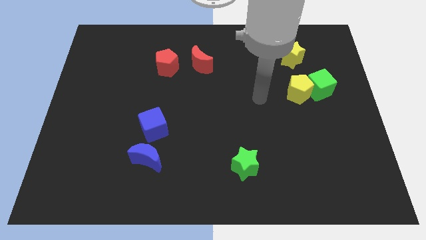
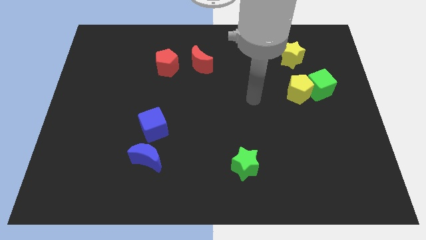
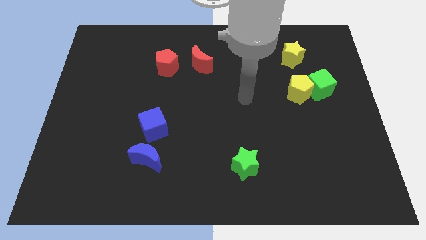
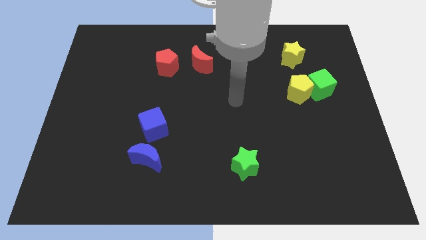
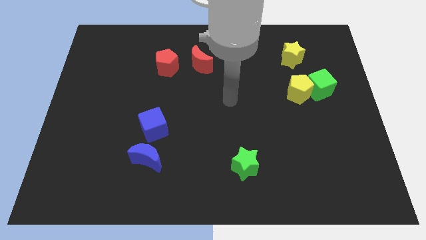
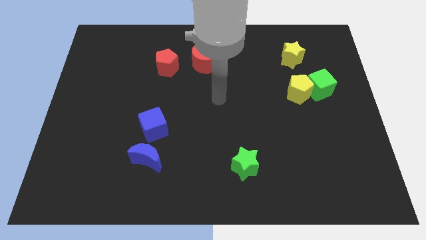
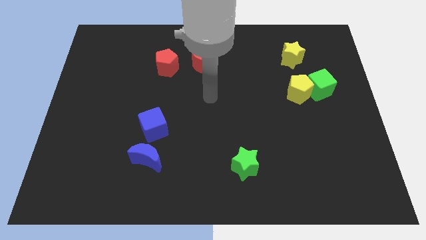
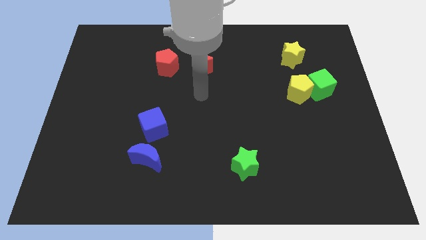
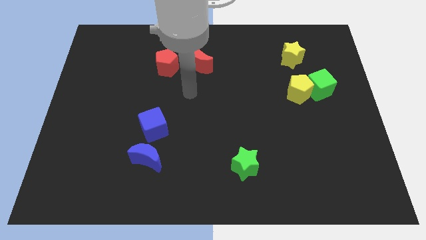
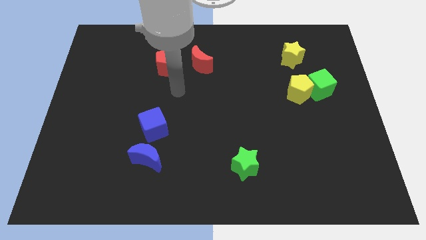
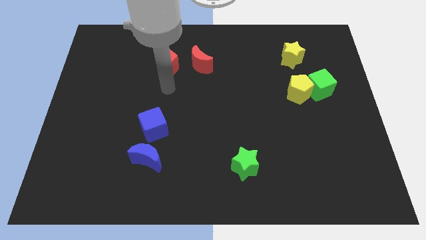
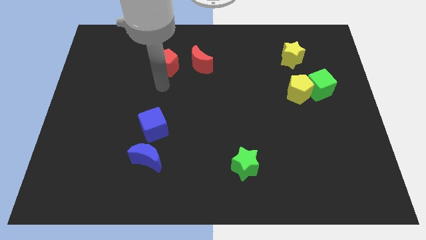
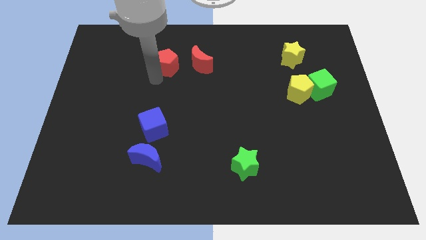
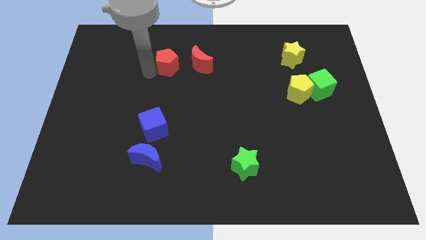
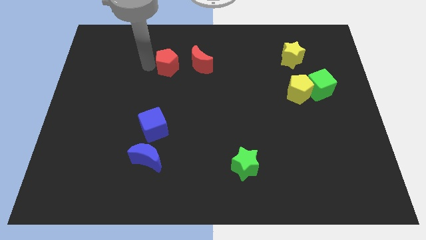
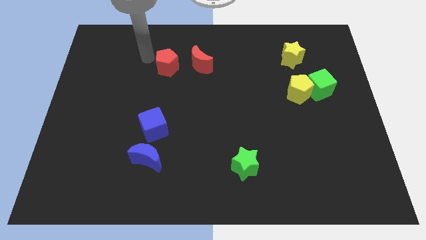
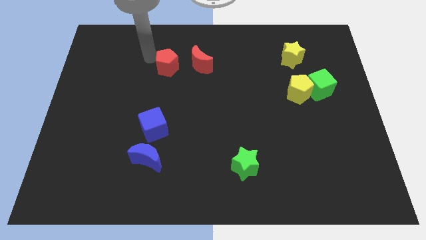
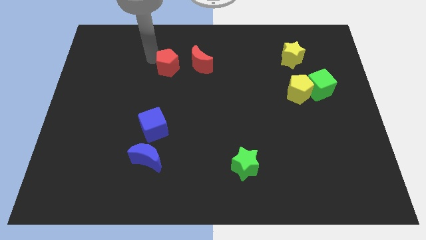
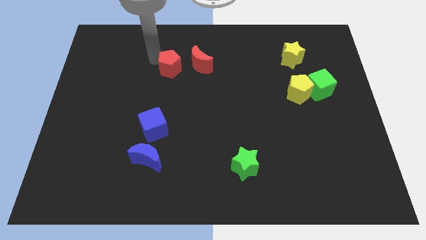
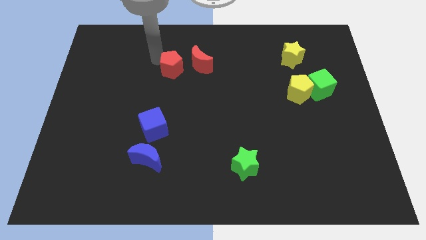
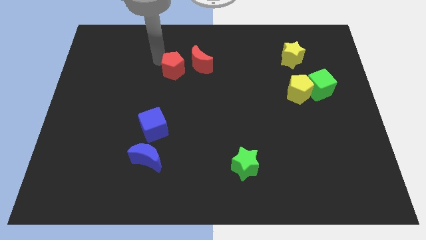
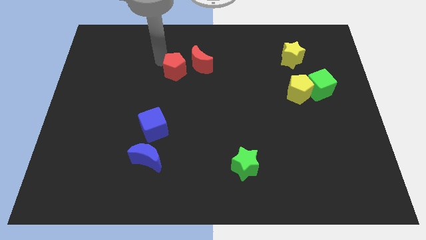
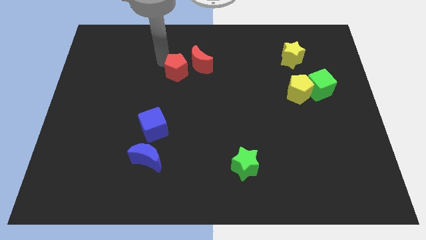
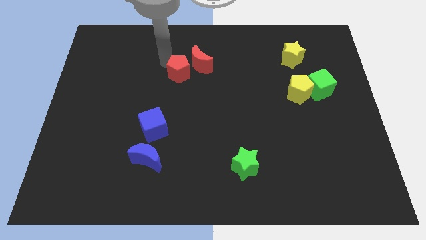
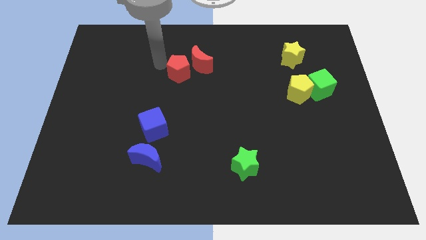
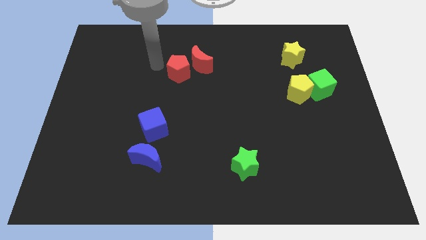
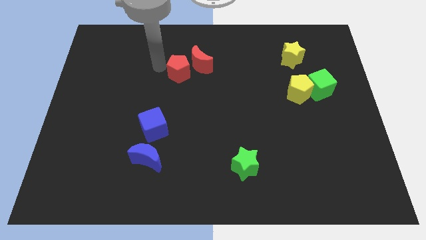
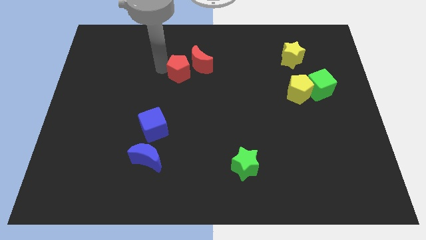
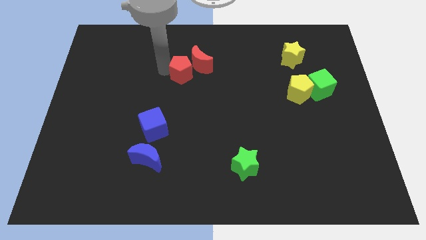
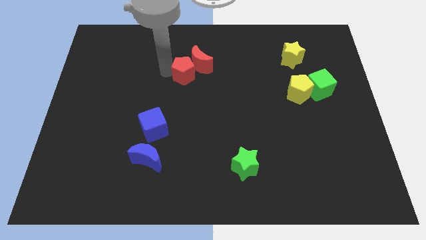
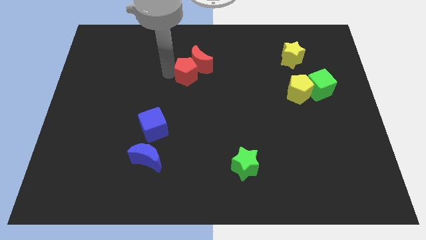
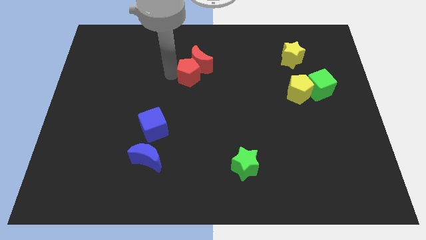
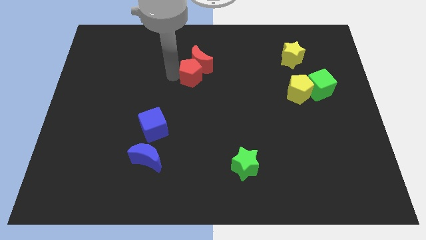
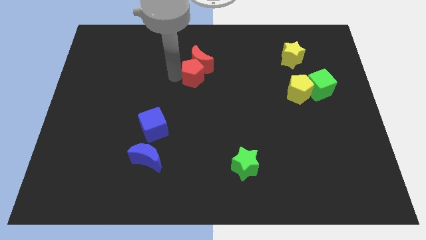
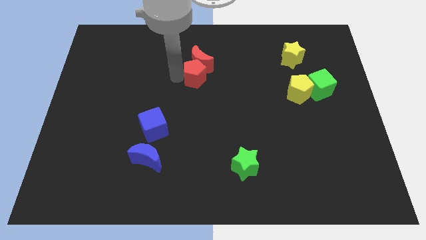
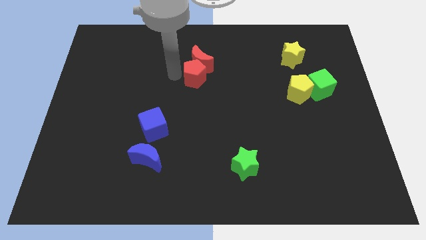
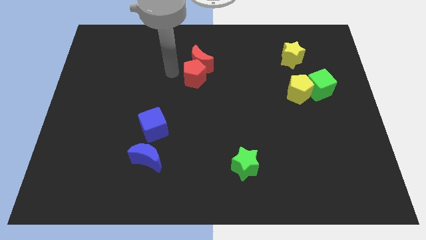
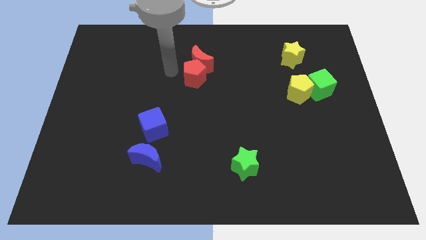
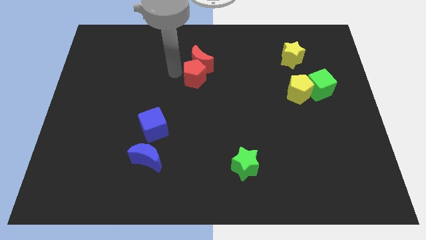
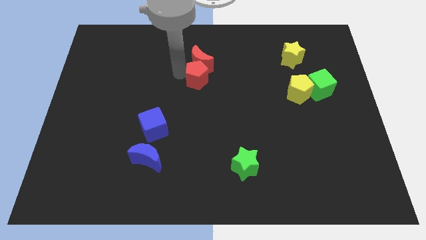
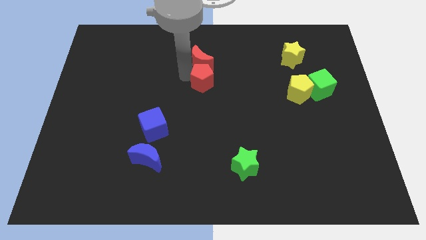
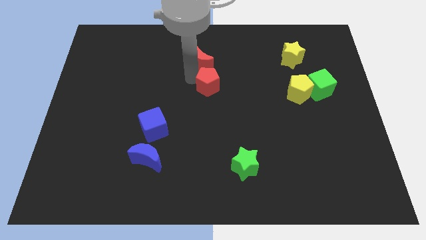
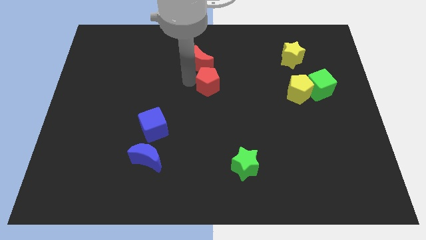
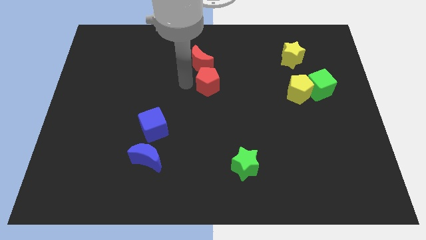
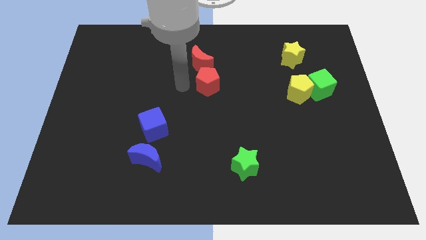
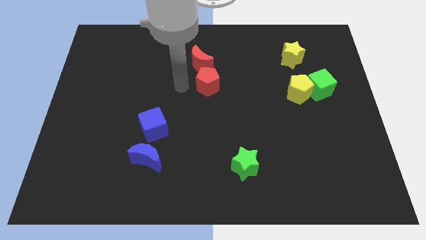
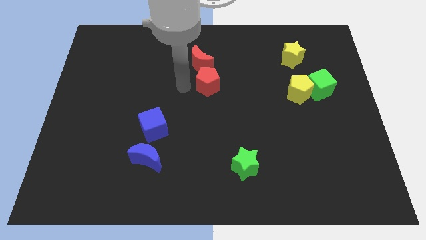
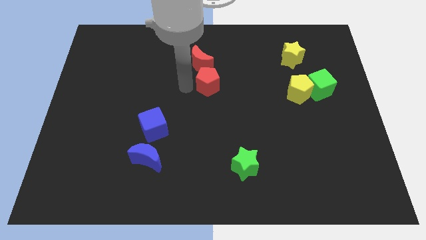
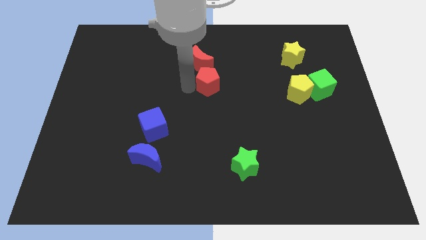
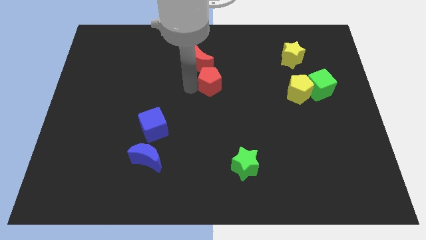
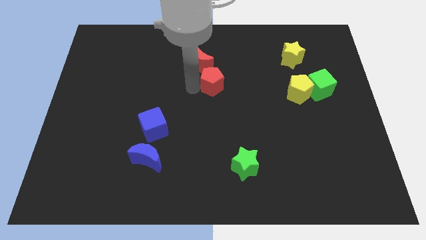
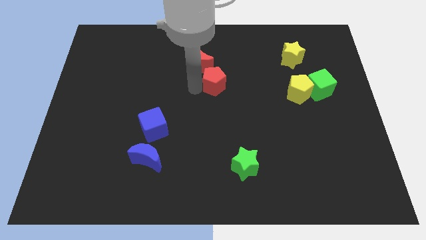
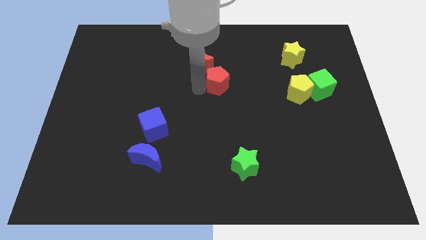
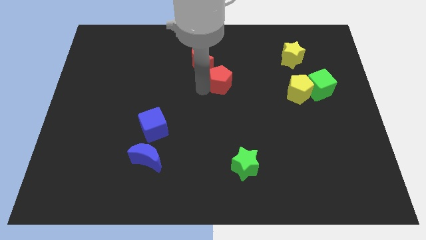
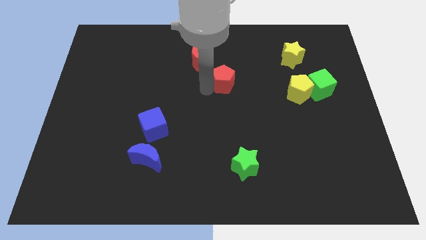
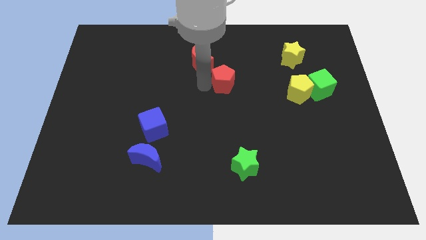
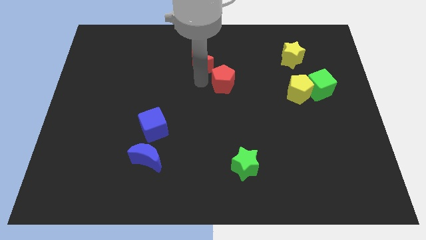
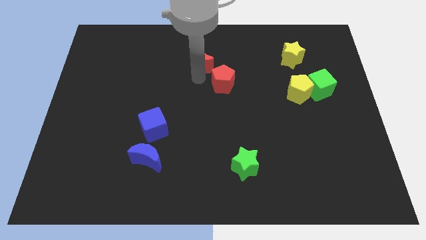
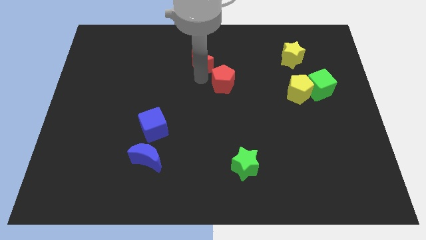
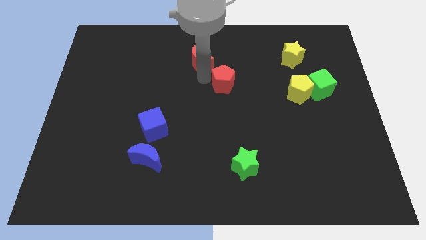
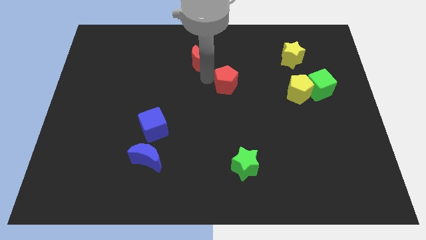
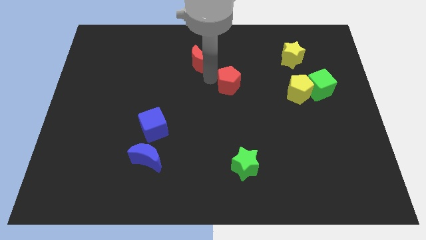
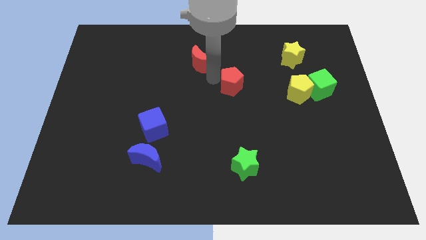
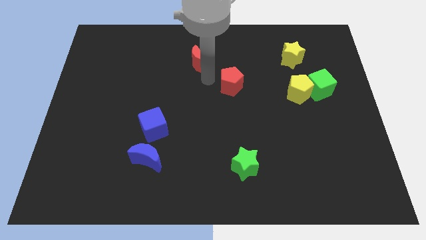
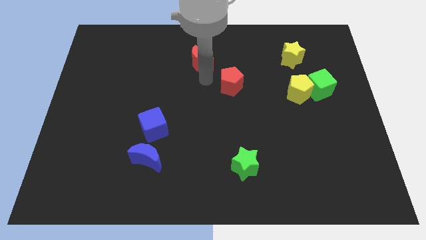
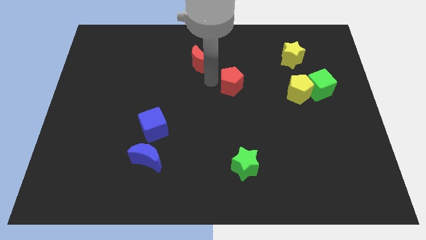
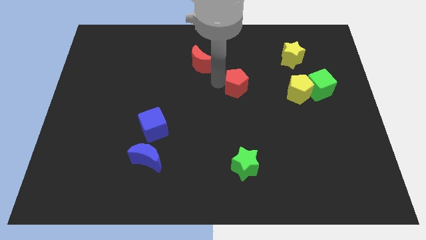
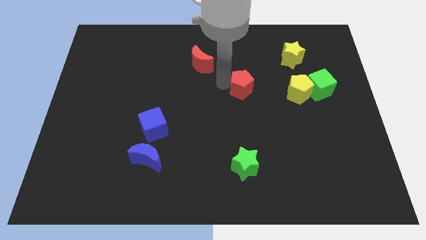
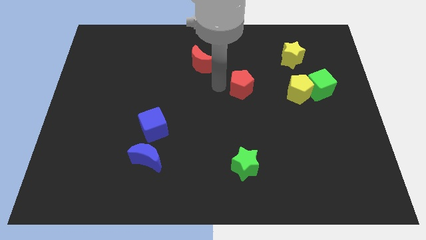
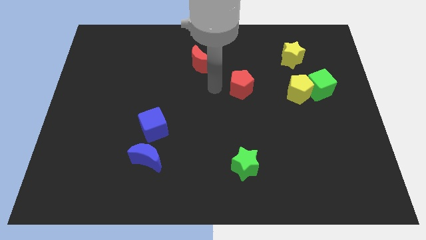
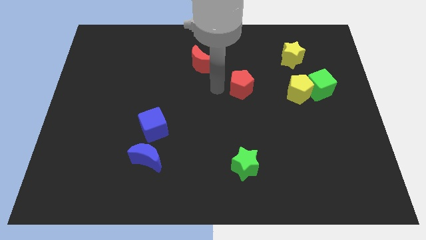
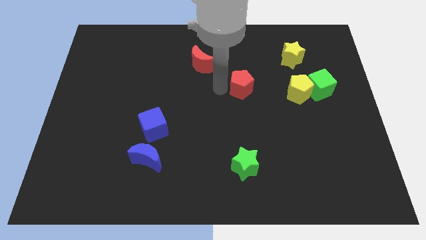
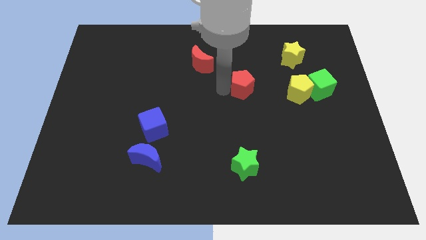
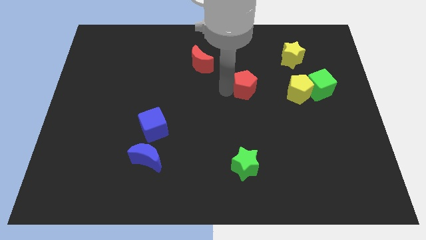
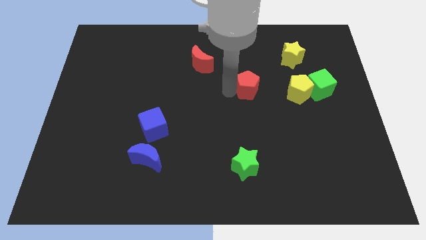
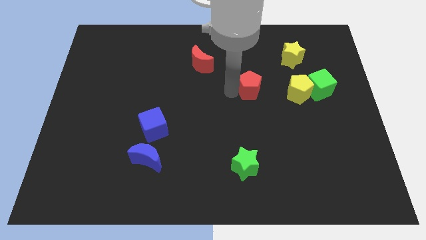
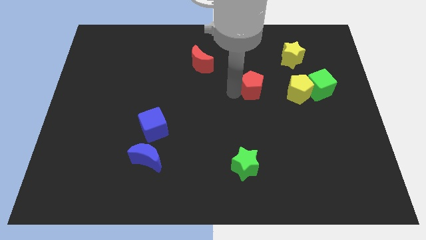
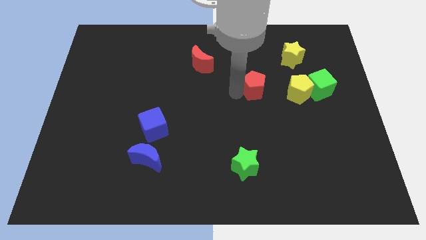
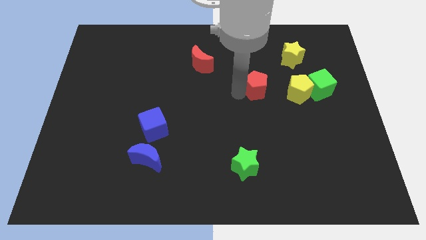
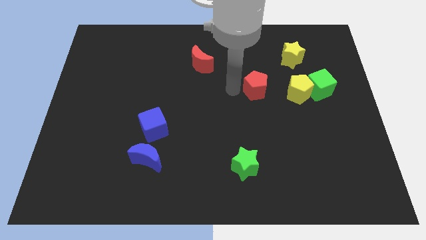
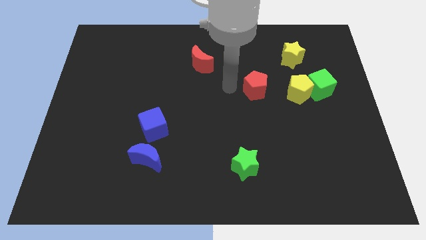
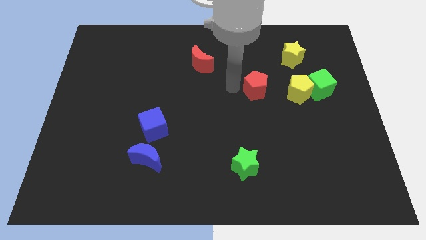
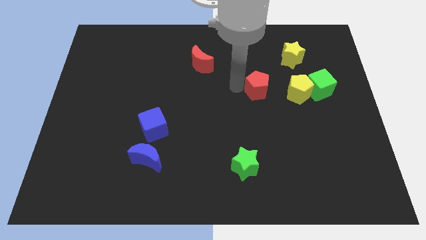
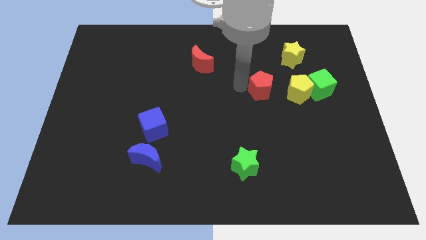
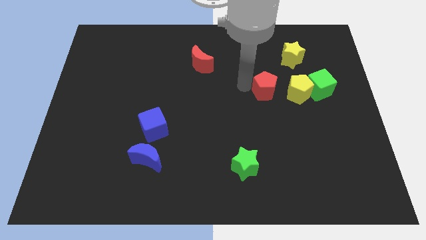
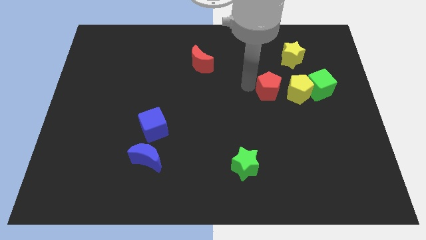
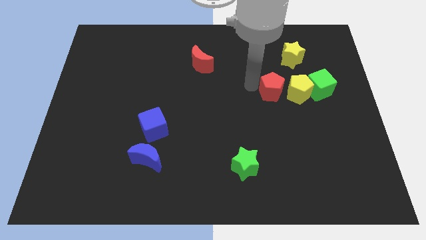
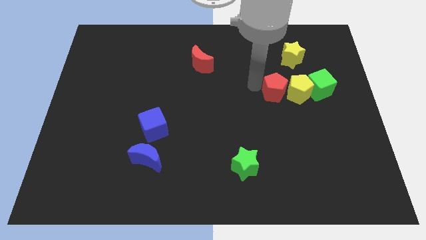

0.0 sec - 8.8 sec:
put the red pentagon towards the yellow pentagon
